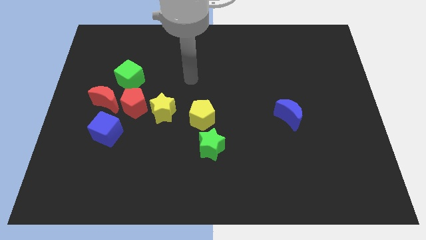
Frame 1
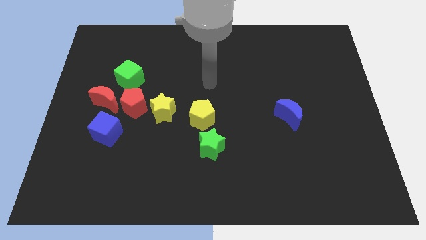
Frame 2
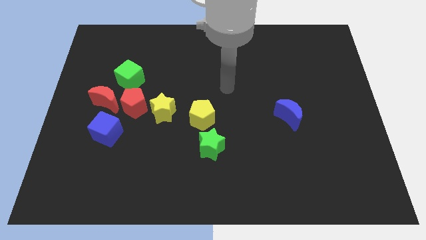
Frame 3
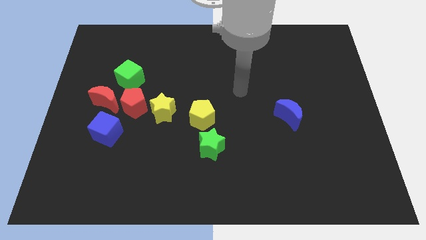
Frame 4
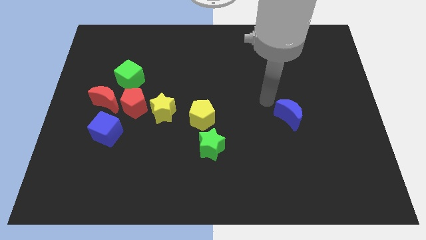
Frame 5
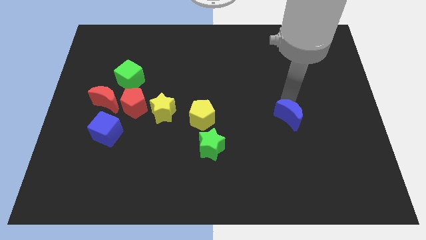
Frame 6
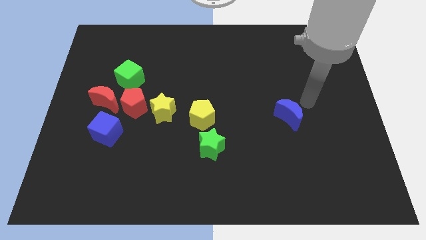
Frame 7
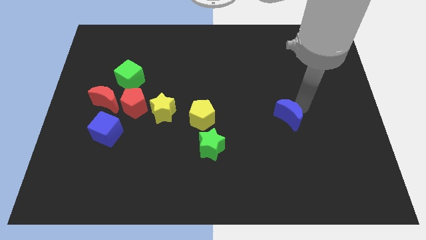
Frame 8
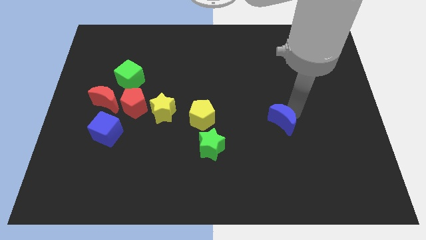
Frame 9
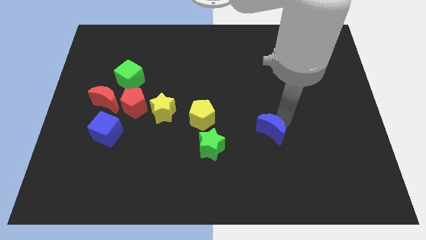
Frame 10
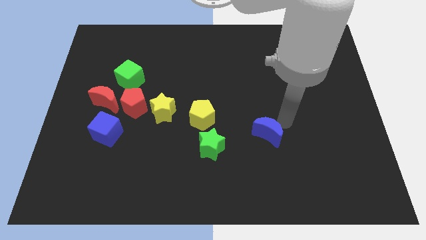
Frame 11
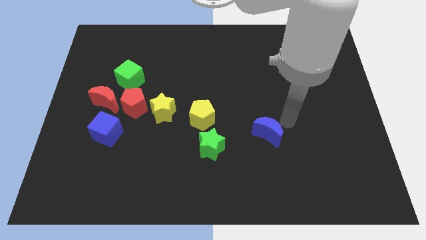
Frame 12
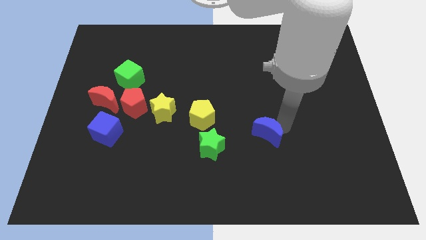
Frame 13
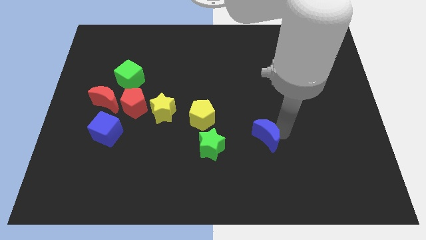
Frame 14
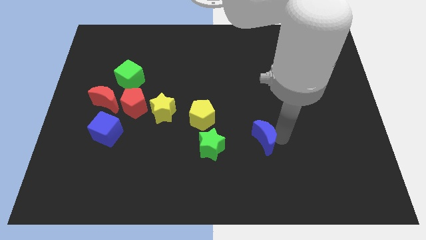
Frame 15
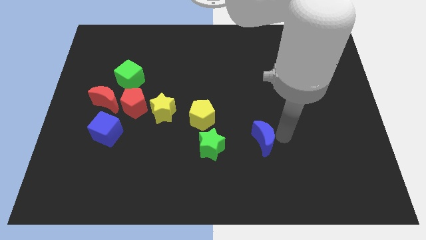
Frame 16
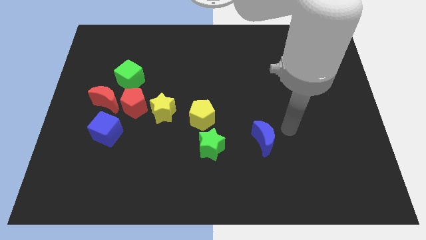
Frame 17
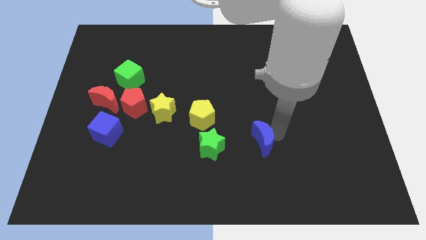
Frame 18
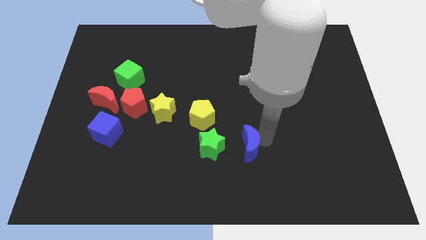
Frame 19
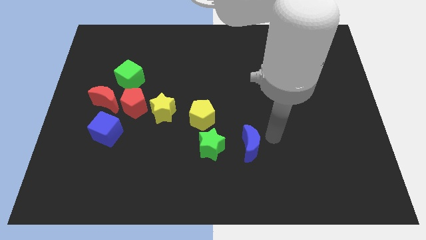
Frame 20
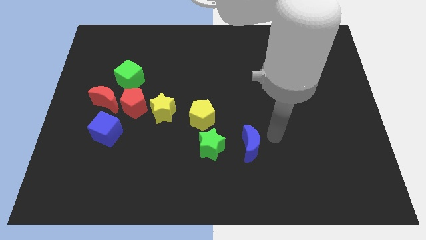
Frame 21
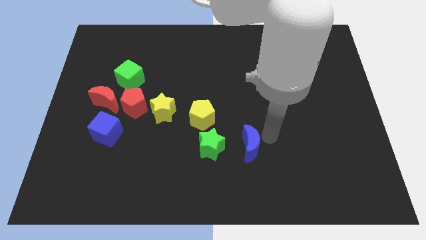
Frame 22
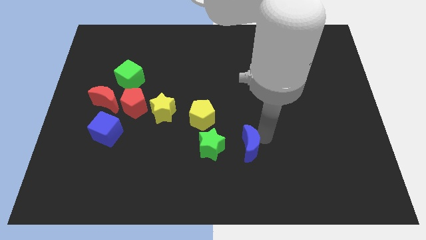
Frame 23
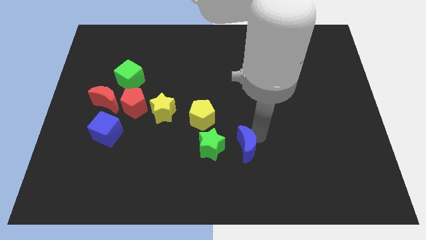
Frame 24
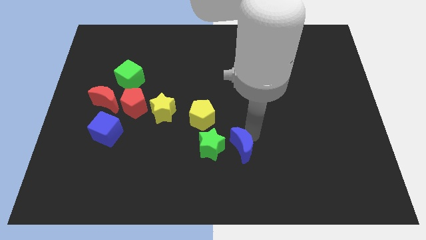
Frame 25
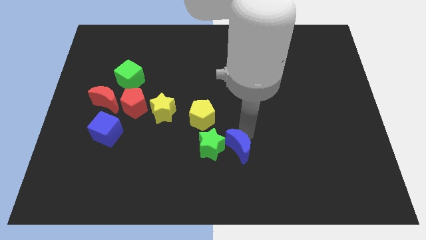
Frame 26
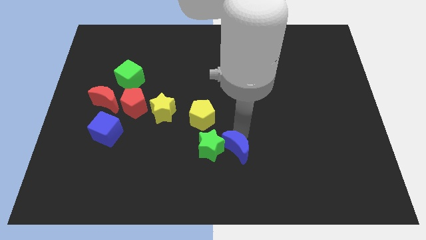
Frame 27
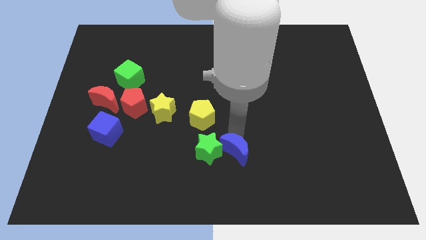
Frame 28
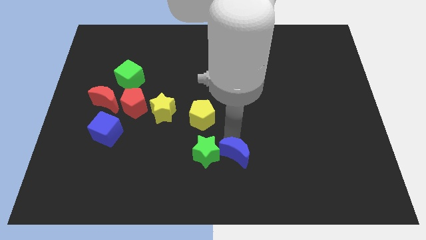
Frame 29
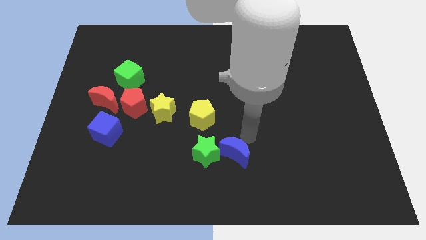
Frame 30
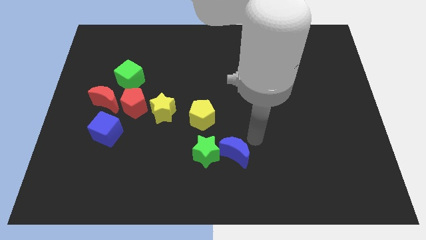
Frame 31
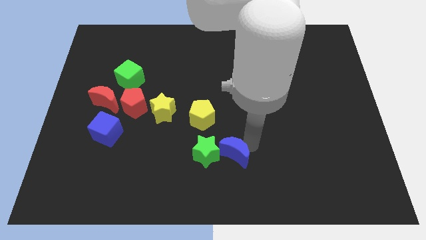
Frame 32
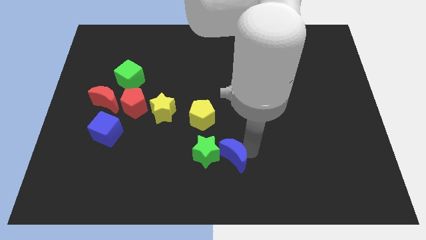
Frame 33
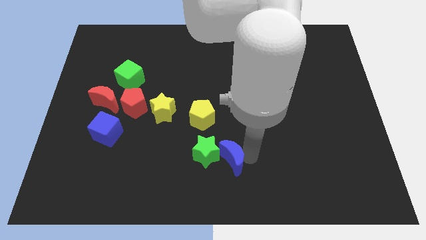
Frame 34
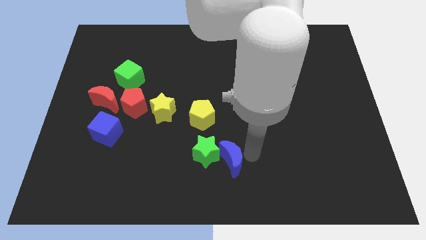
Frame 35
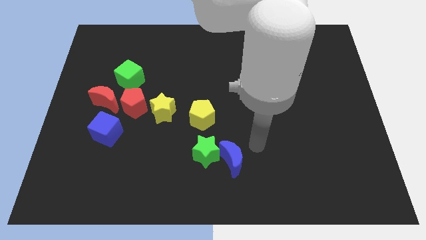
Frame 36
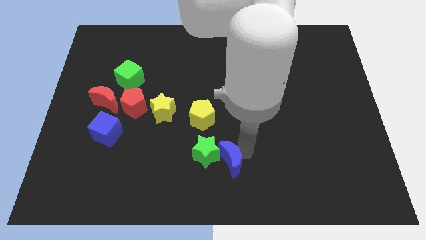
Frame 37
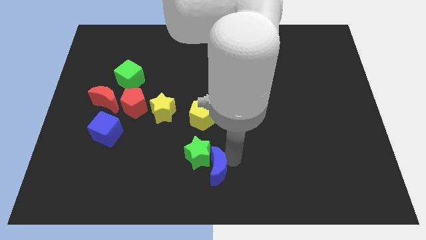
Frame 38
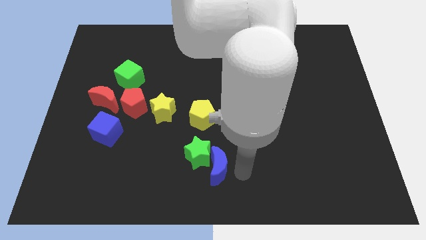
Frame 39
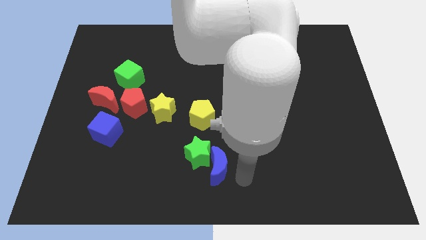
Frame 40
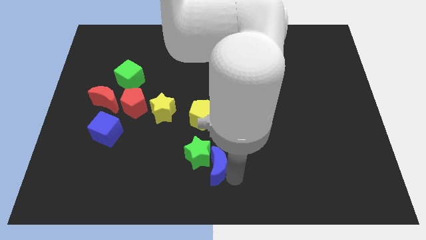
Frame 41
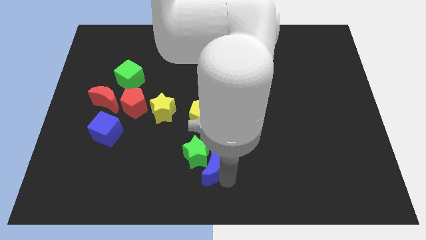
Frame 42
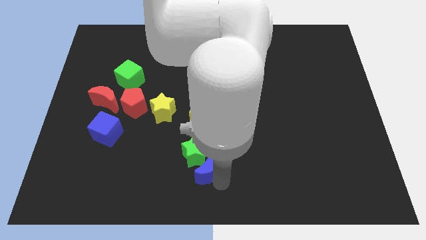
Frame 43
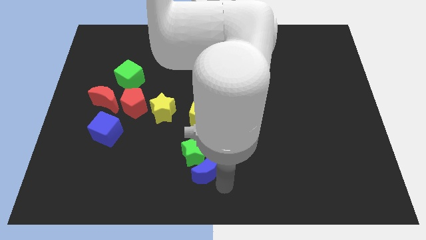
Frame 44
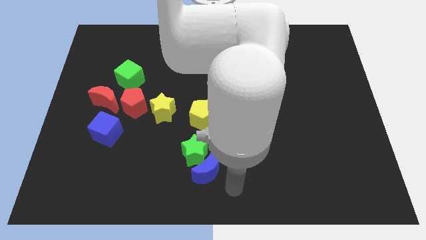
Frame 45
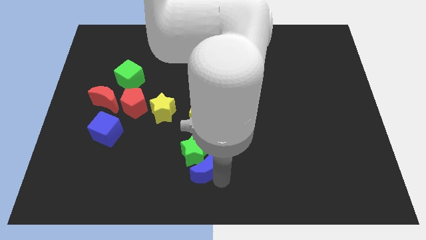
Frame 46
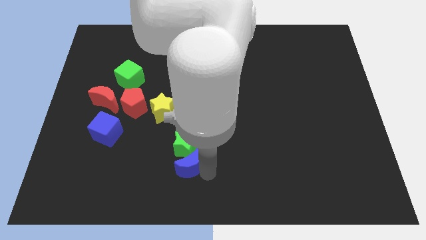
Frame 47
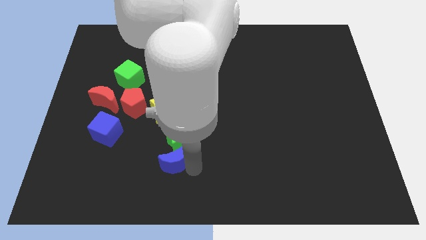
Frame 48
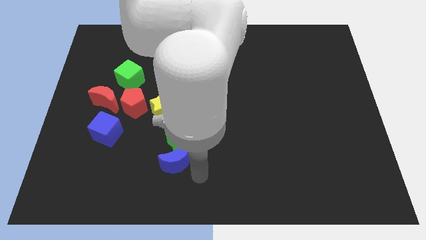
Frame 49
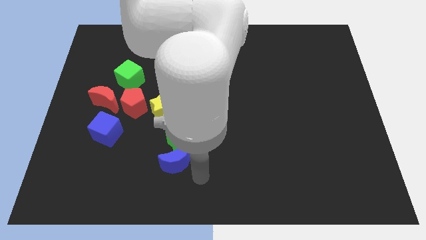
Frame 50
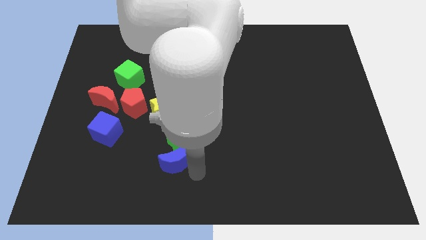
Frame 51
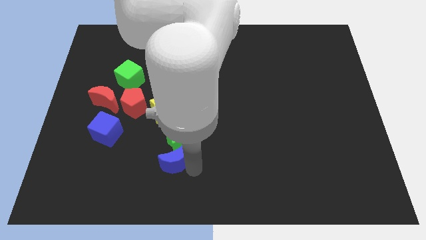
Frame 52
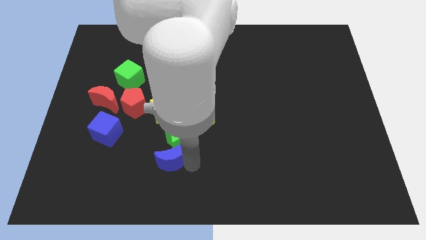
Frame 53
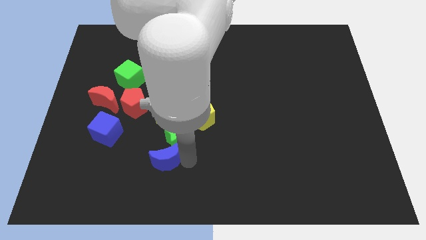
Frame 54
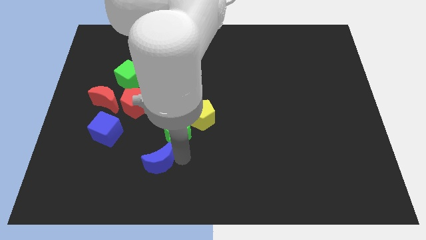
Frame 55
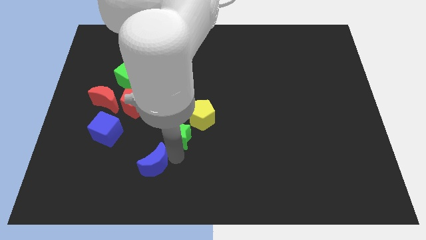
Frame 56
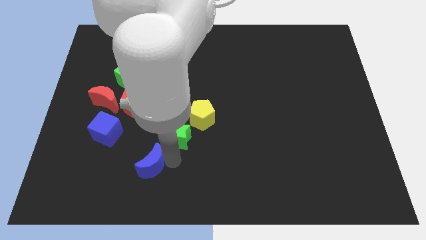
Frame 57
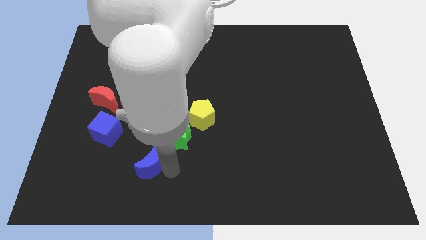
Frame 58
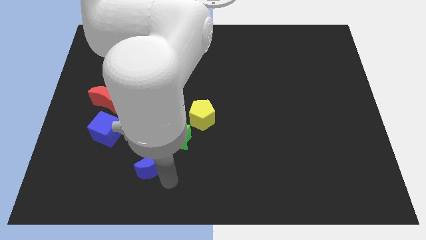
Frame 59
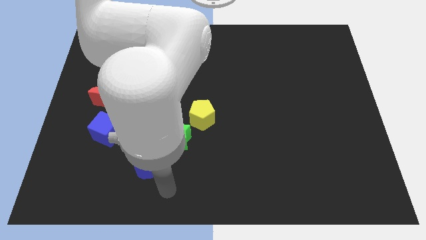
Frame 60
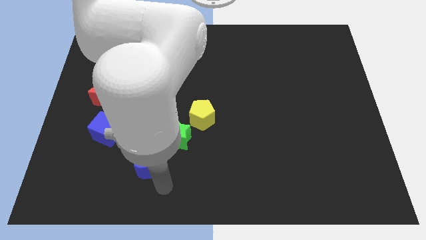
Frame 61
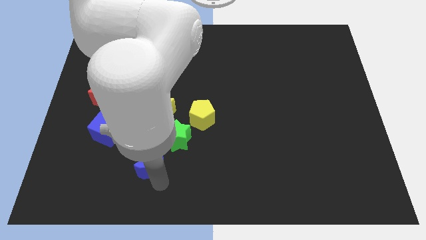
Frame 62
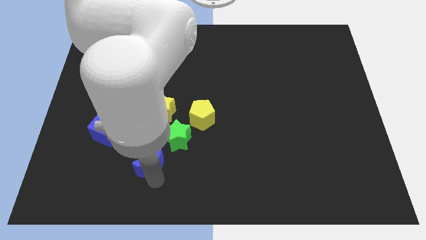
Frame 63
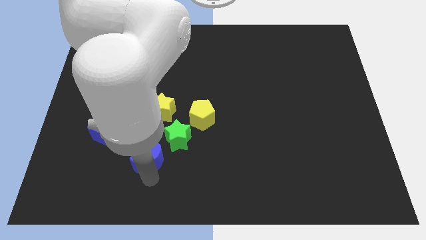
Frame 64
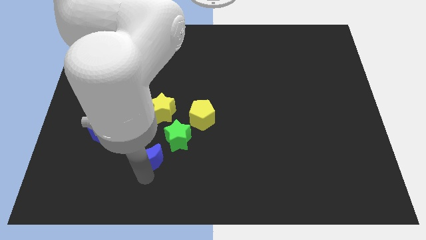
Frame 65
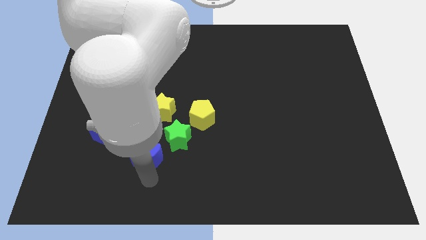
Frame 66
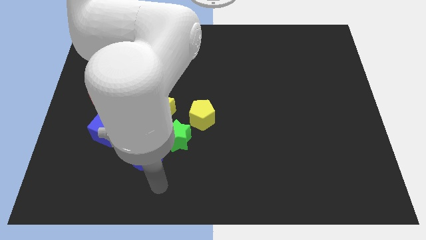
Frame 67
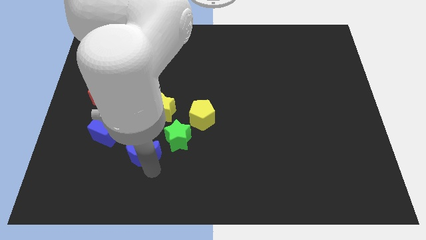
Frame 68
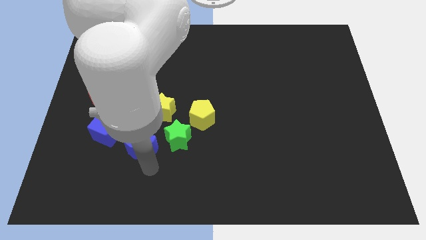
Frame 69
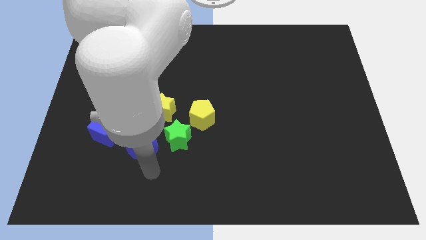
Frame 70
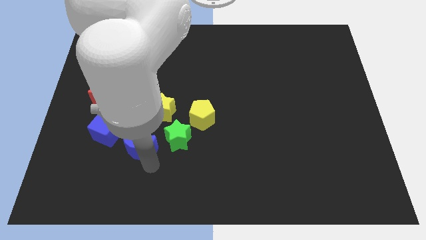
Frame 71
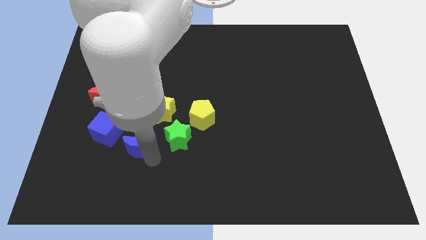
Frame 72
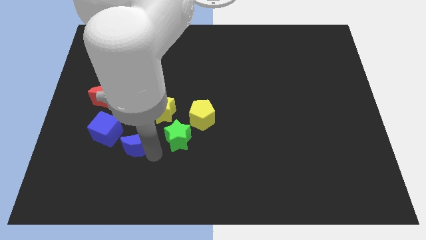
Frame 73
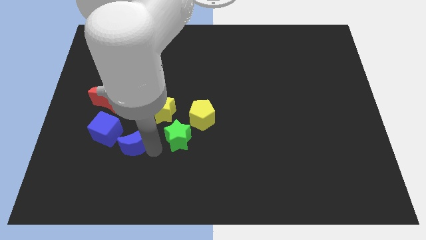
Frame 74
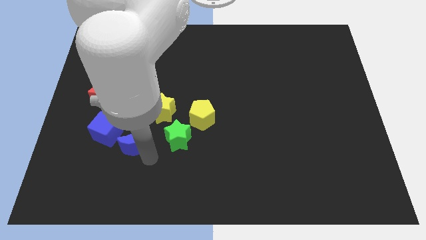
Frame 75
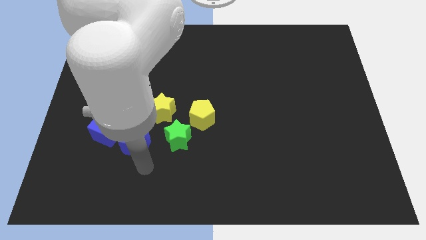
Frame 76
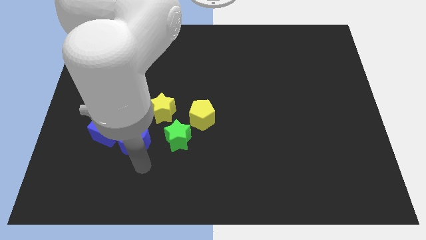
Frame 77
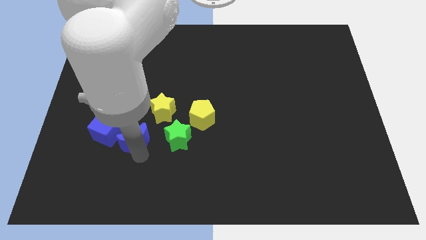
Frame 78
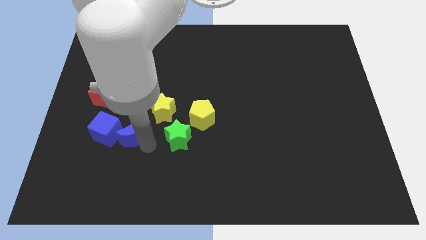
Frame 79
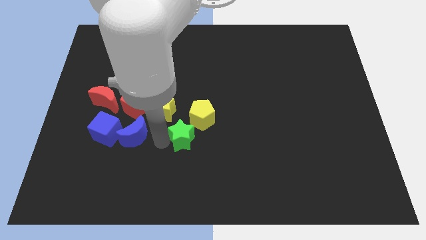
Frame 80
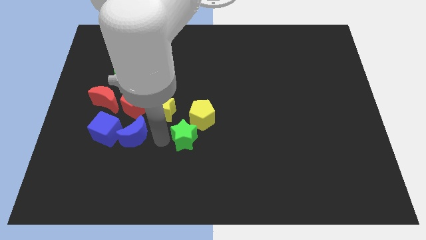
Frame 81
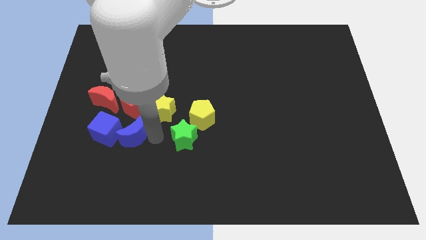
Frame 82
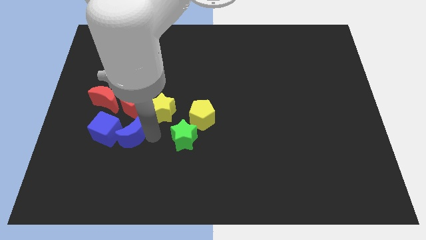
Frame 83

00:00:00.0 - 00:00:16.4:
push the blue moon next to the blue cube
